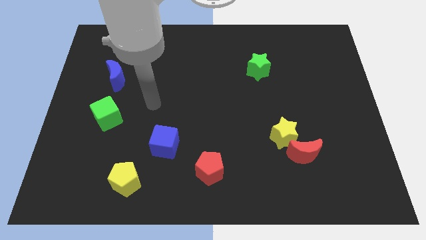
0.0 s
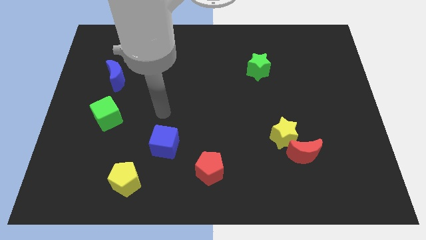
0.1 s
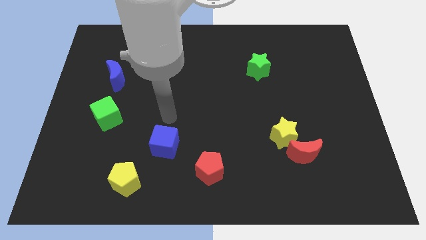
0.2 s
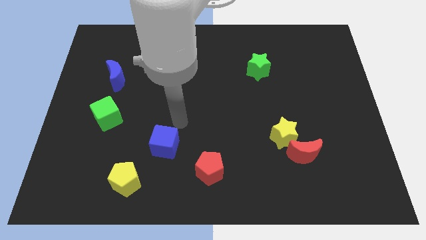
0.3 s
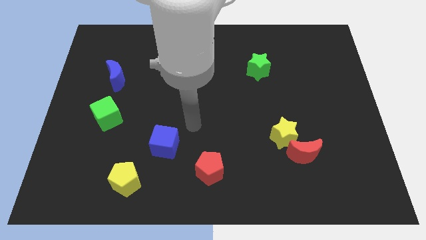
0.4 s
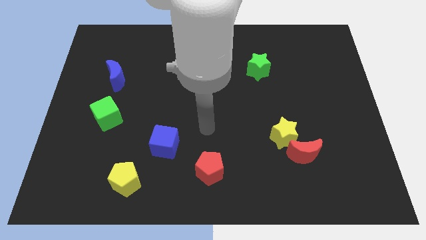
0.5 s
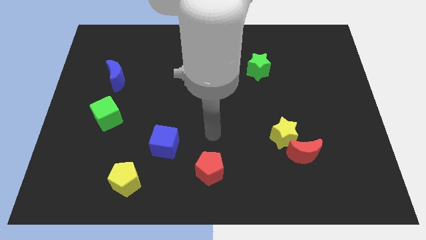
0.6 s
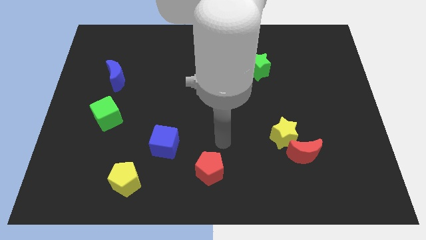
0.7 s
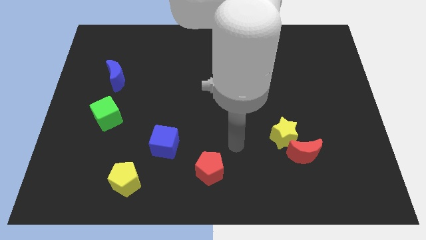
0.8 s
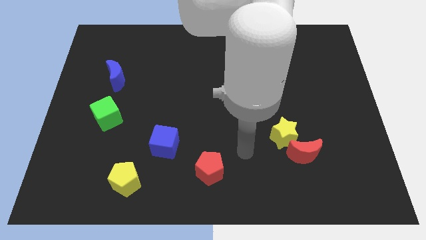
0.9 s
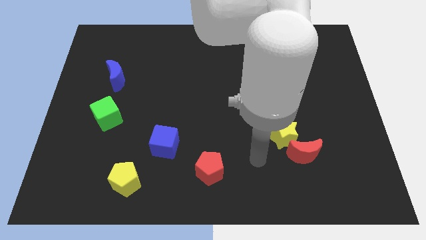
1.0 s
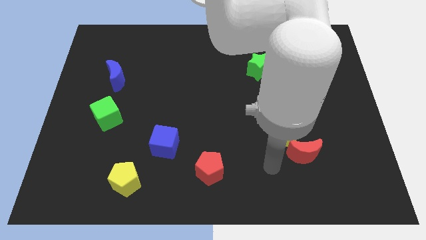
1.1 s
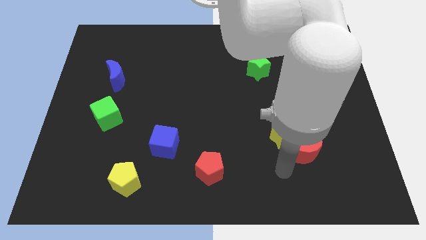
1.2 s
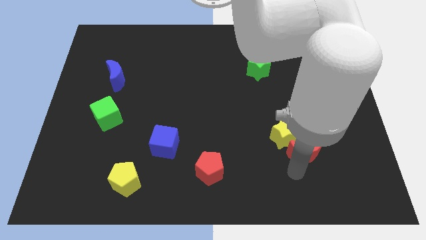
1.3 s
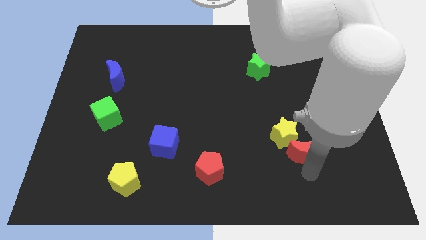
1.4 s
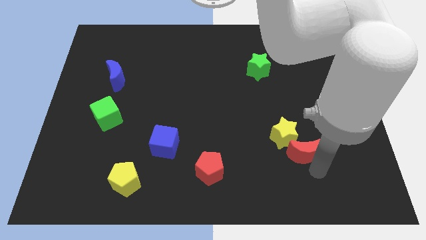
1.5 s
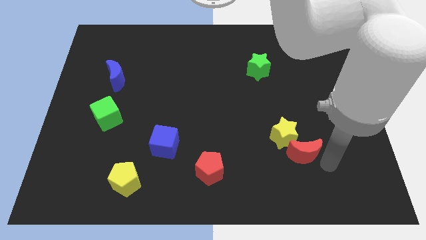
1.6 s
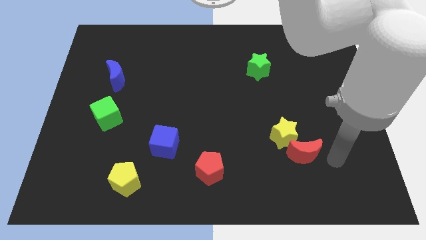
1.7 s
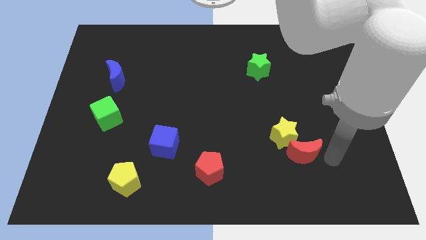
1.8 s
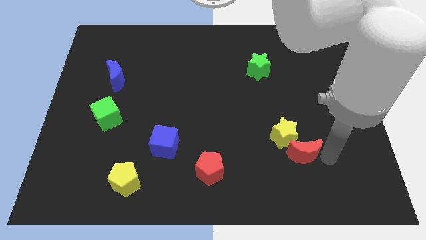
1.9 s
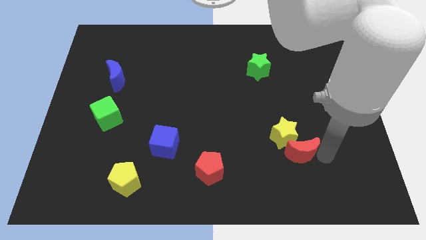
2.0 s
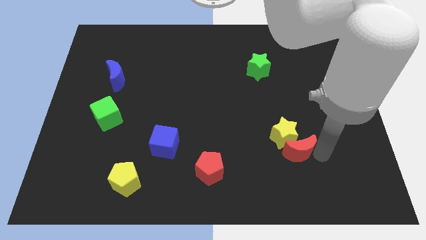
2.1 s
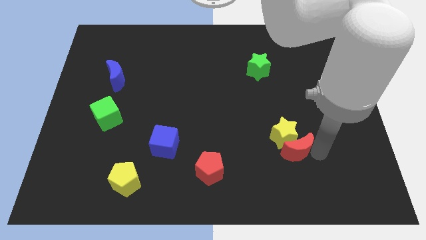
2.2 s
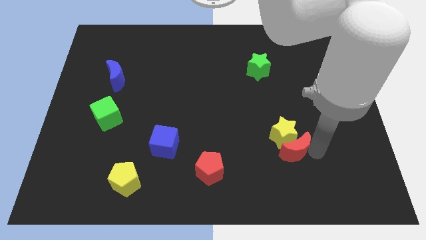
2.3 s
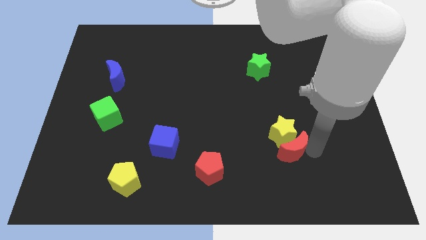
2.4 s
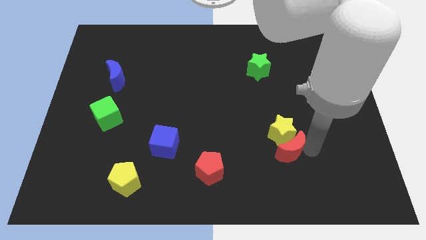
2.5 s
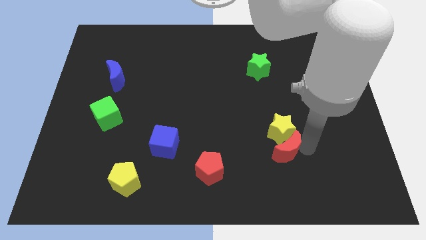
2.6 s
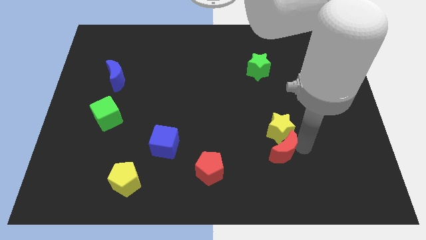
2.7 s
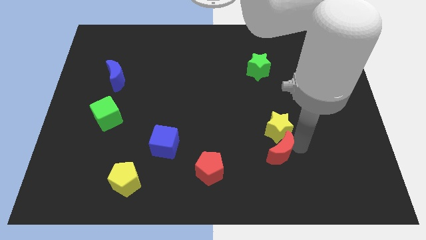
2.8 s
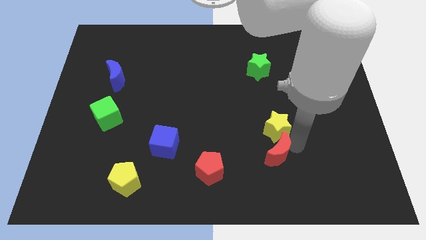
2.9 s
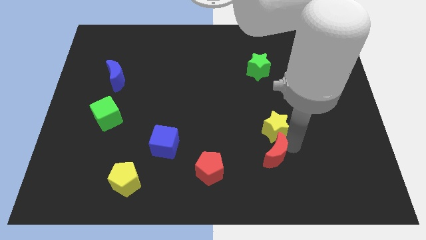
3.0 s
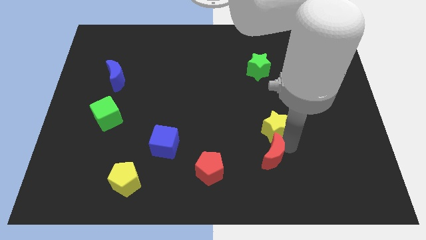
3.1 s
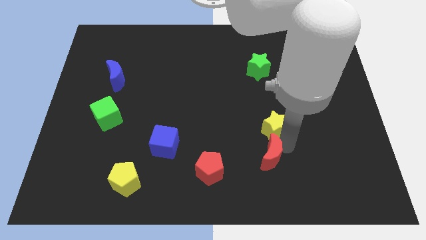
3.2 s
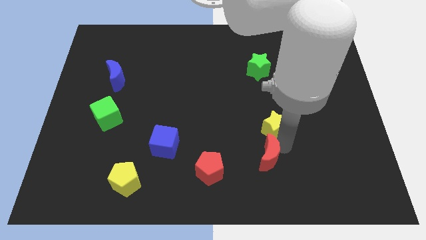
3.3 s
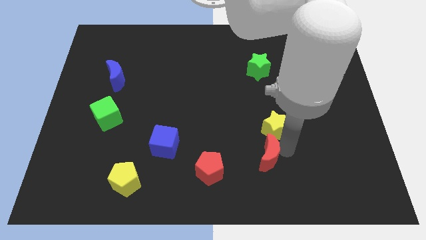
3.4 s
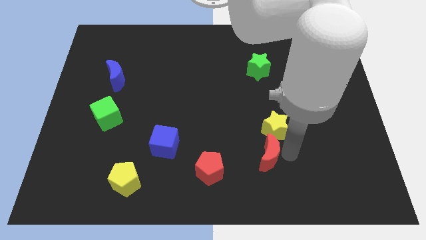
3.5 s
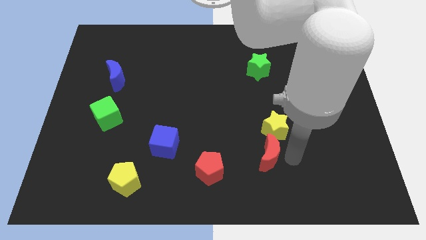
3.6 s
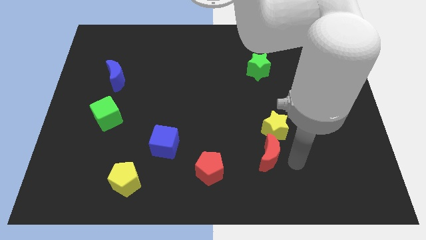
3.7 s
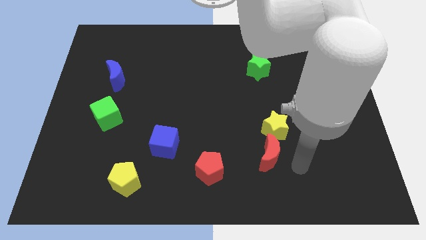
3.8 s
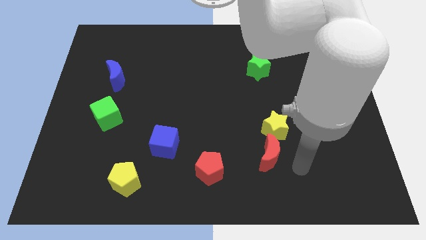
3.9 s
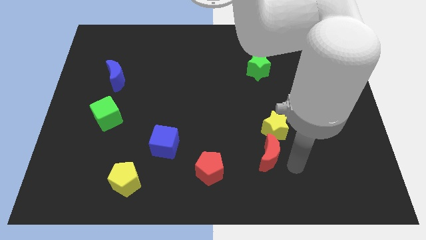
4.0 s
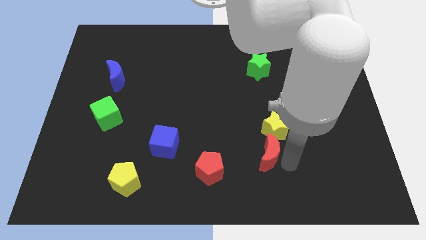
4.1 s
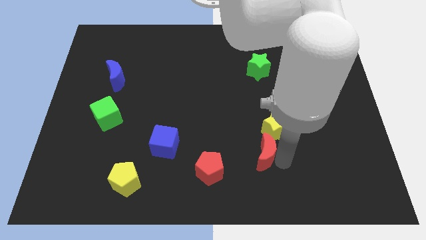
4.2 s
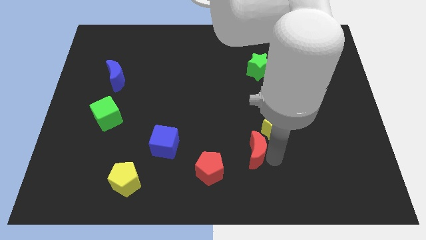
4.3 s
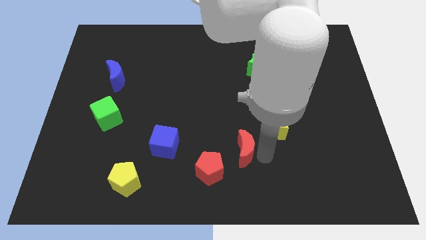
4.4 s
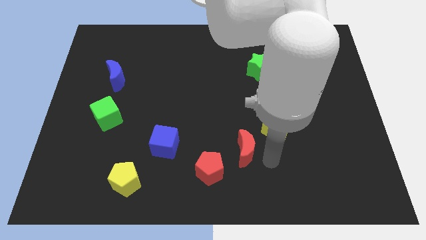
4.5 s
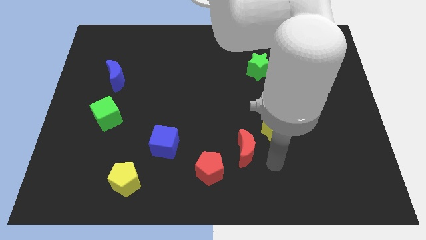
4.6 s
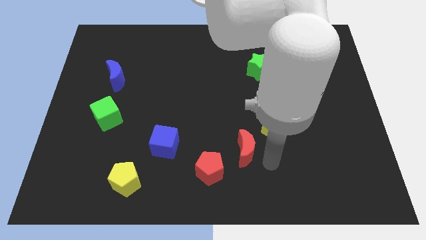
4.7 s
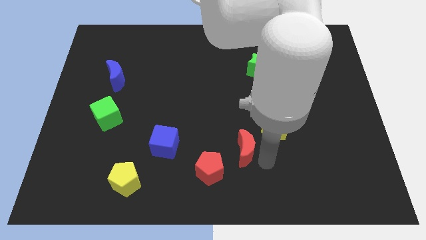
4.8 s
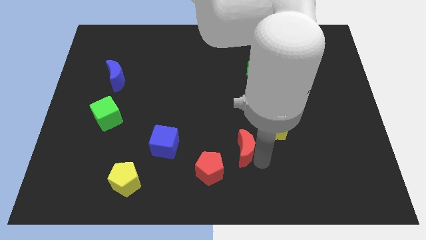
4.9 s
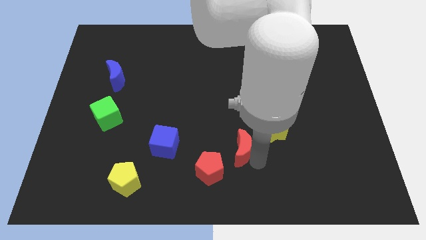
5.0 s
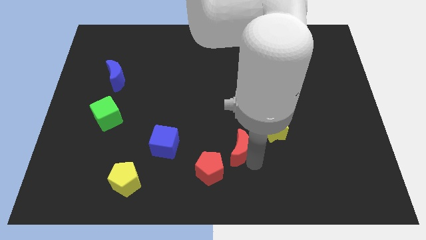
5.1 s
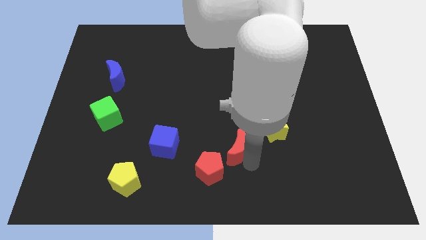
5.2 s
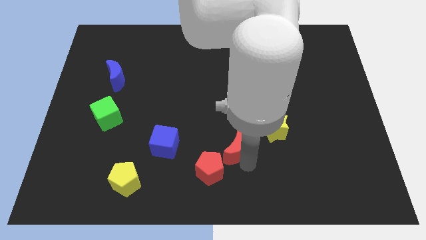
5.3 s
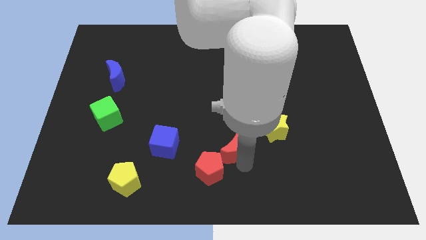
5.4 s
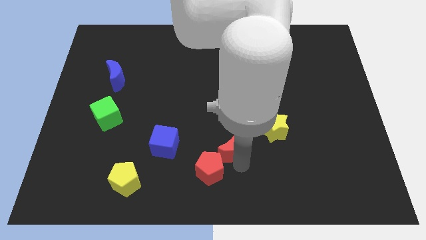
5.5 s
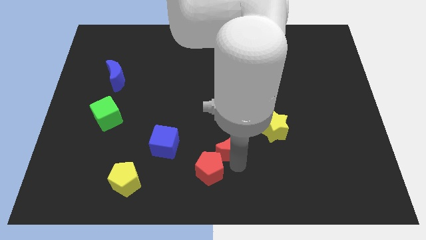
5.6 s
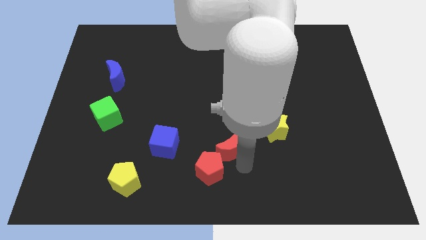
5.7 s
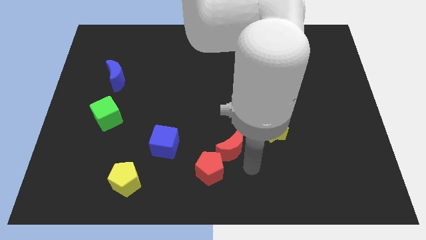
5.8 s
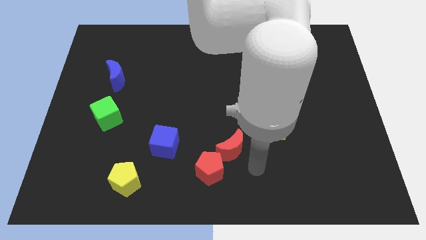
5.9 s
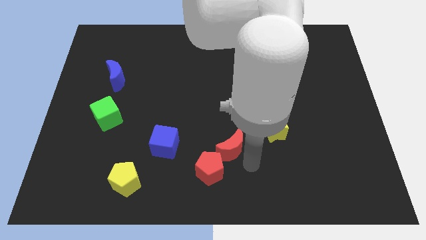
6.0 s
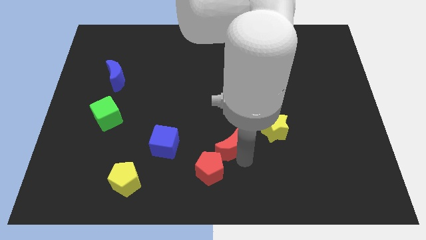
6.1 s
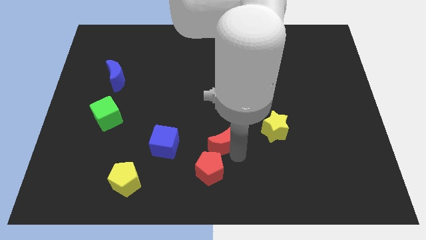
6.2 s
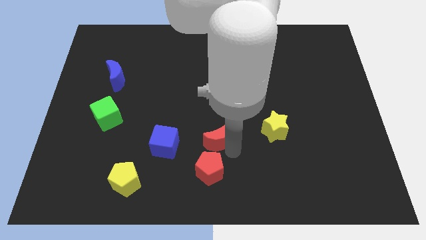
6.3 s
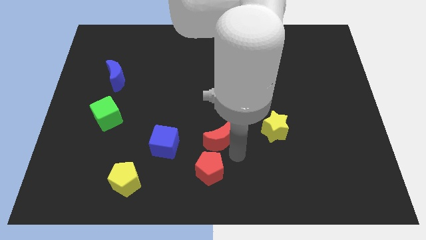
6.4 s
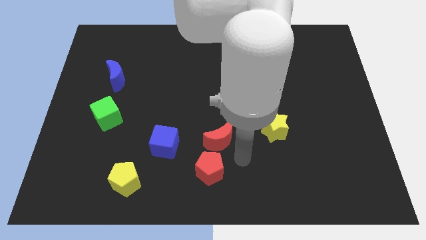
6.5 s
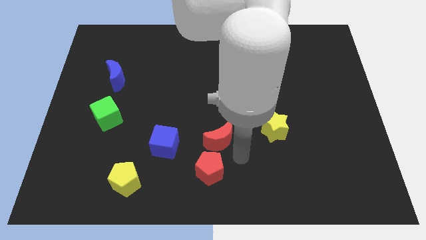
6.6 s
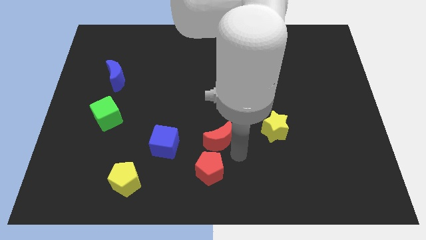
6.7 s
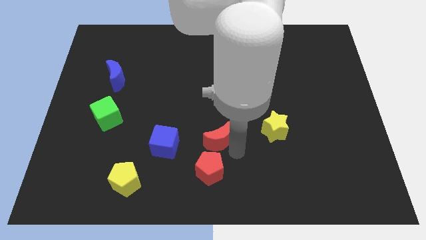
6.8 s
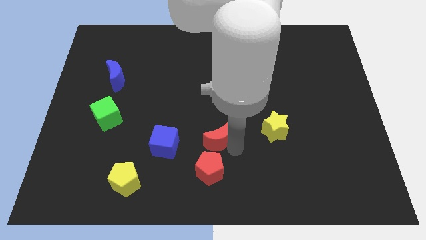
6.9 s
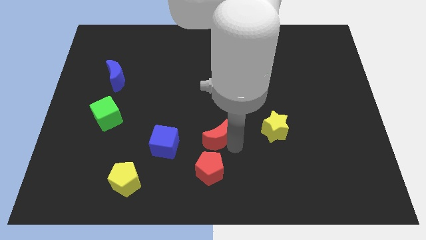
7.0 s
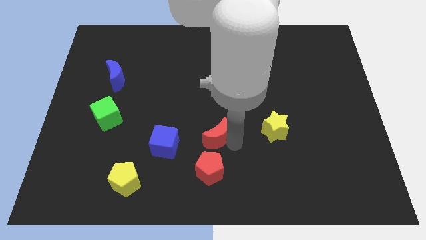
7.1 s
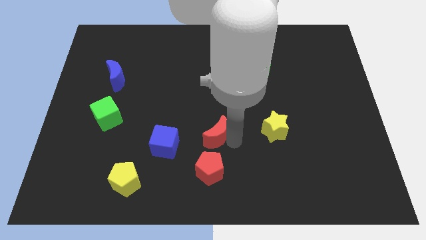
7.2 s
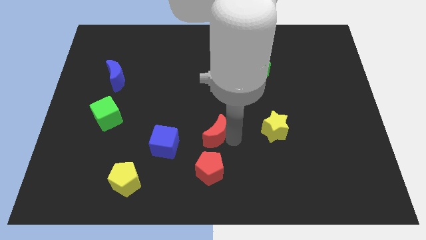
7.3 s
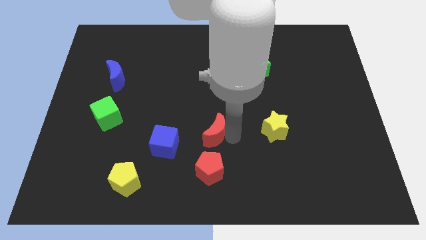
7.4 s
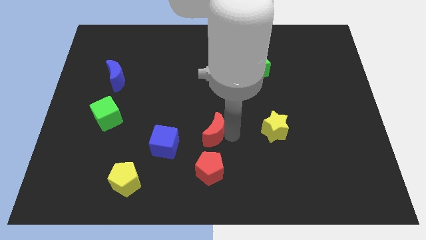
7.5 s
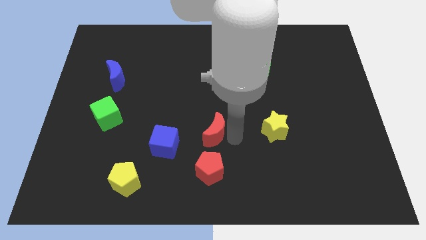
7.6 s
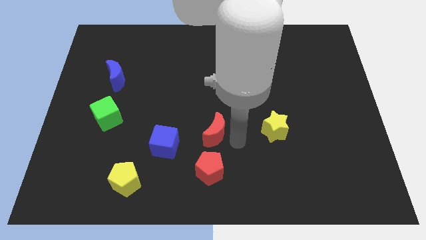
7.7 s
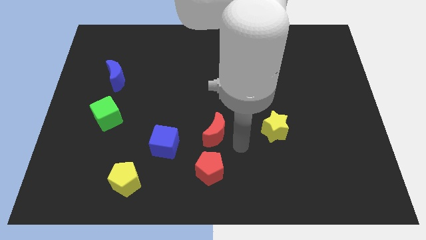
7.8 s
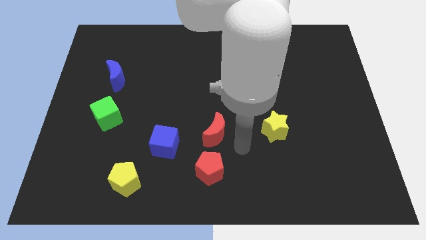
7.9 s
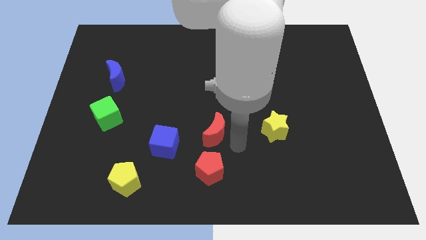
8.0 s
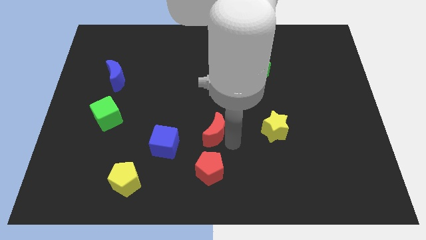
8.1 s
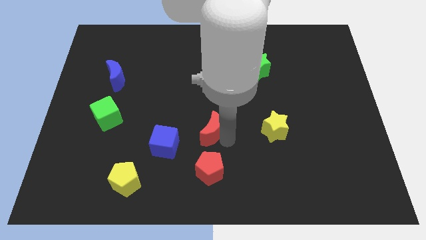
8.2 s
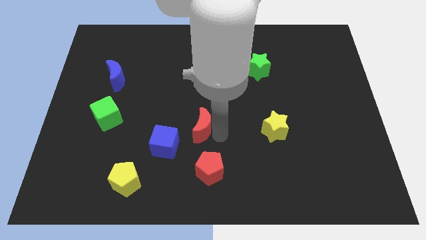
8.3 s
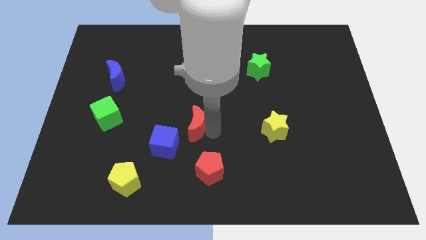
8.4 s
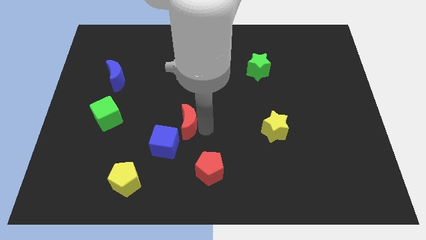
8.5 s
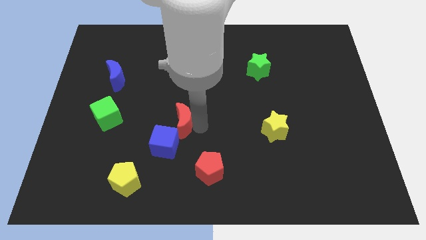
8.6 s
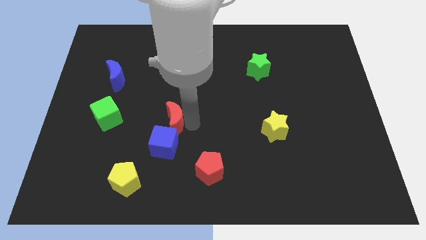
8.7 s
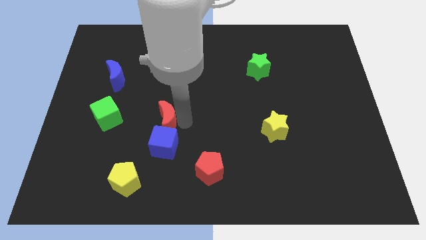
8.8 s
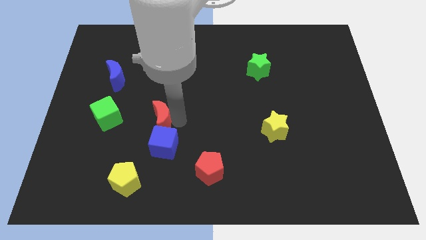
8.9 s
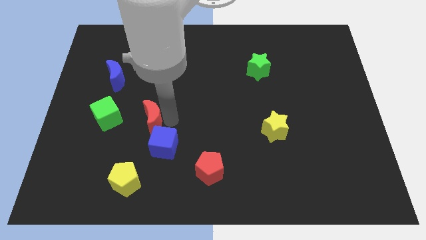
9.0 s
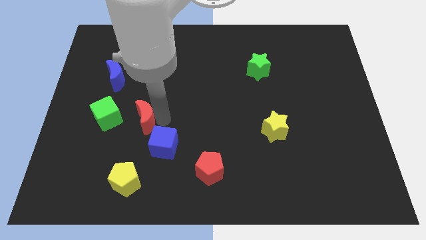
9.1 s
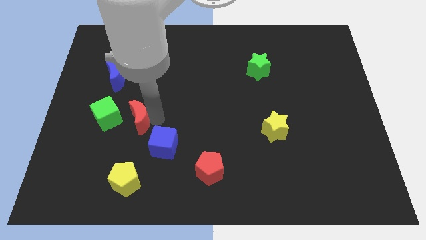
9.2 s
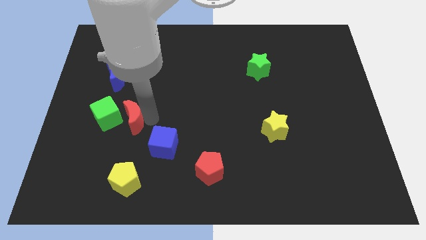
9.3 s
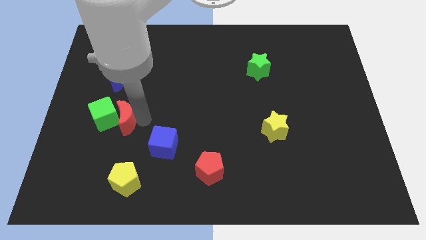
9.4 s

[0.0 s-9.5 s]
move the red moon towards the green cube
